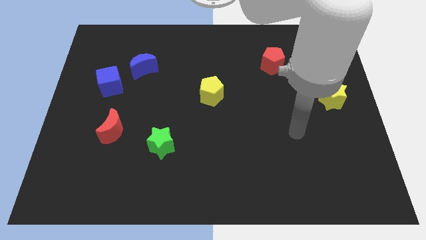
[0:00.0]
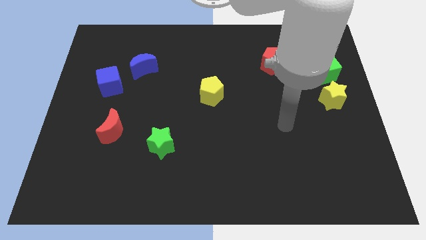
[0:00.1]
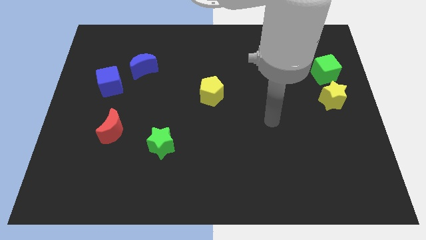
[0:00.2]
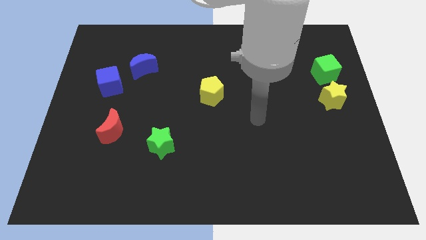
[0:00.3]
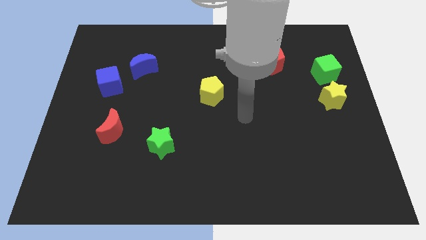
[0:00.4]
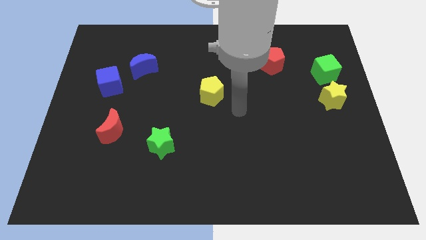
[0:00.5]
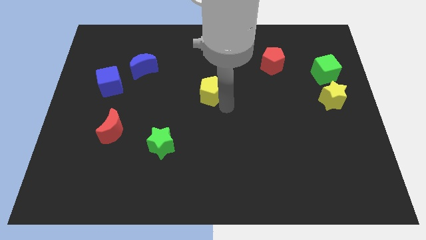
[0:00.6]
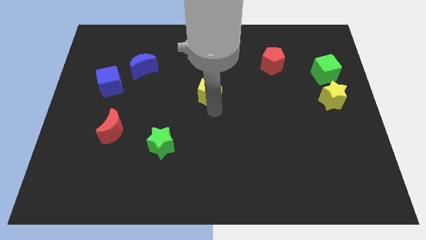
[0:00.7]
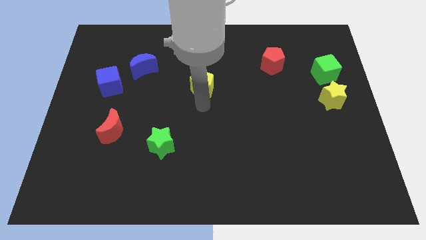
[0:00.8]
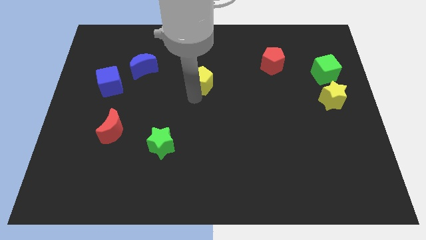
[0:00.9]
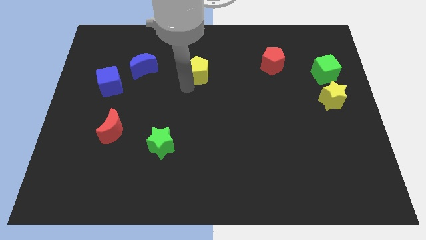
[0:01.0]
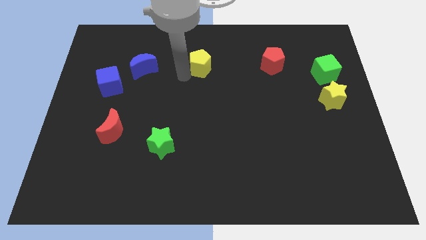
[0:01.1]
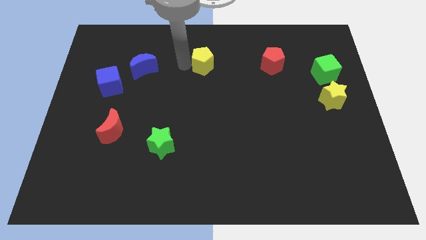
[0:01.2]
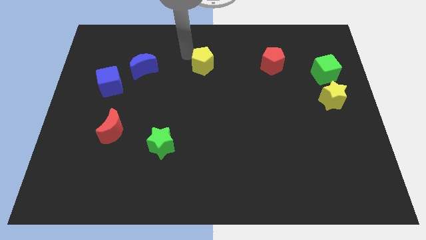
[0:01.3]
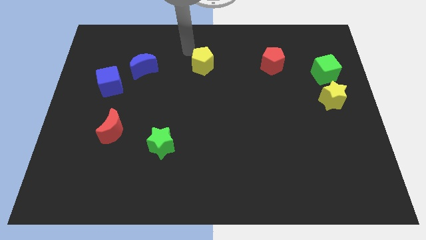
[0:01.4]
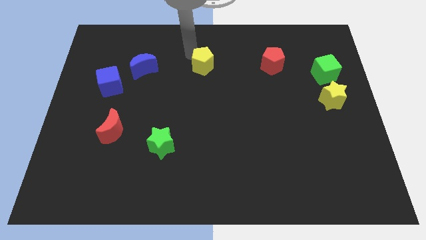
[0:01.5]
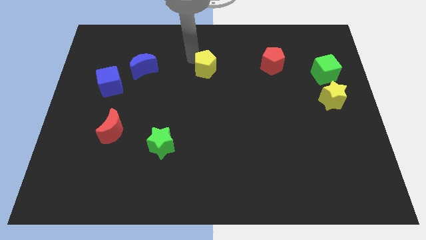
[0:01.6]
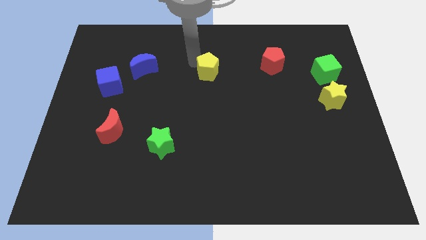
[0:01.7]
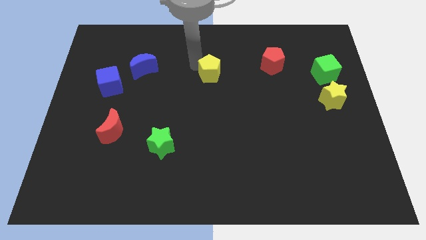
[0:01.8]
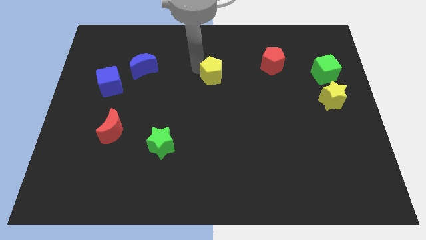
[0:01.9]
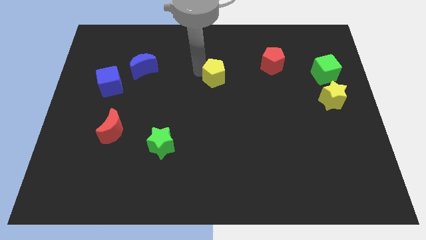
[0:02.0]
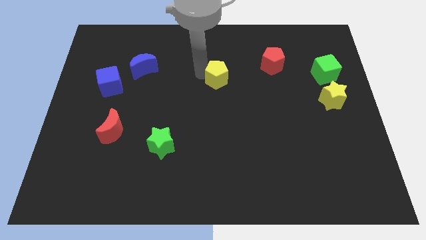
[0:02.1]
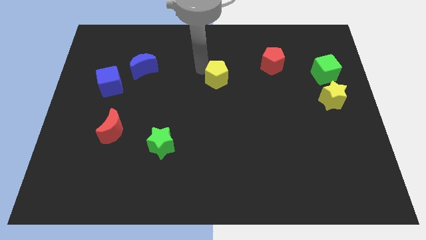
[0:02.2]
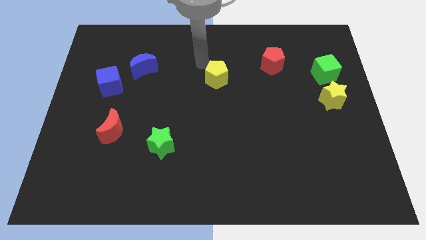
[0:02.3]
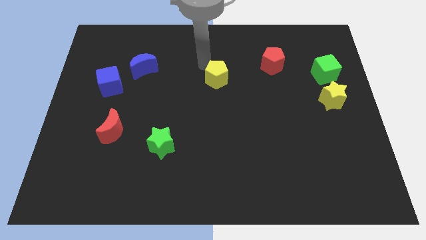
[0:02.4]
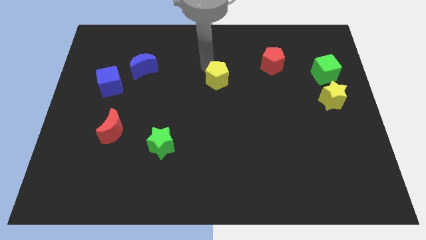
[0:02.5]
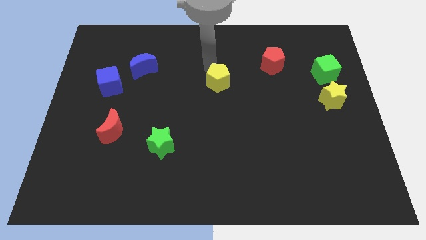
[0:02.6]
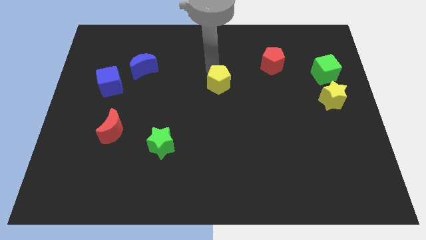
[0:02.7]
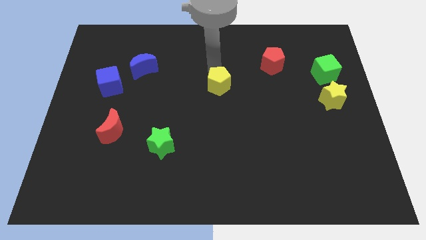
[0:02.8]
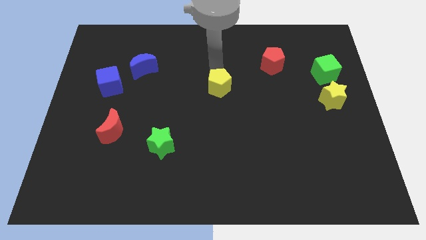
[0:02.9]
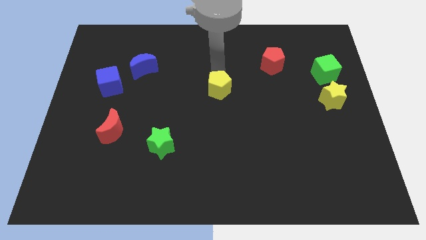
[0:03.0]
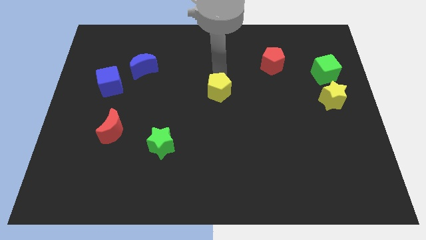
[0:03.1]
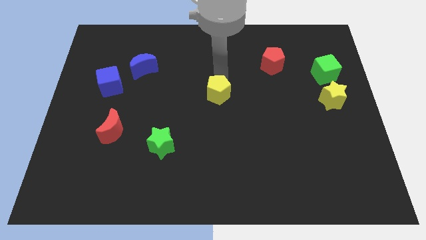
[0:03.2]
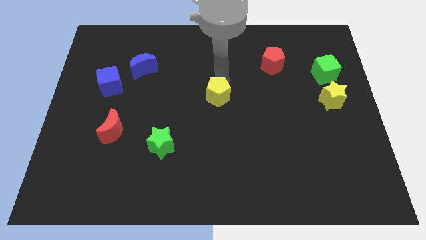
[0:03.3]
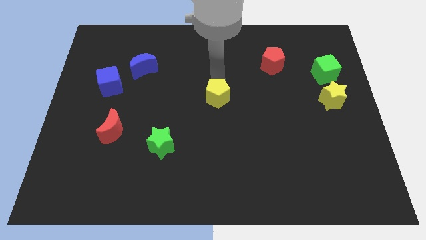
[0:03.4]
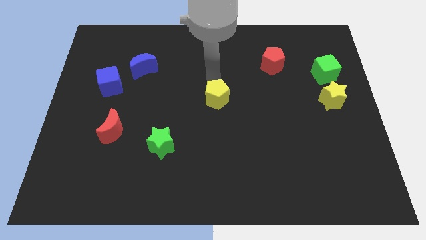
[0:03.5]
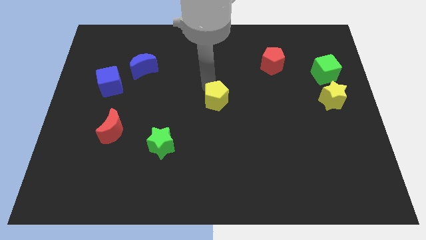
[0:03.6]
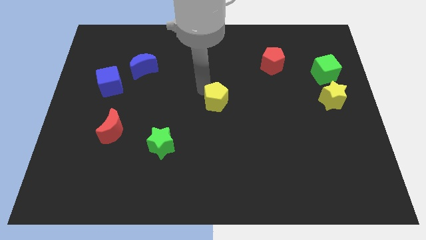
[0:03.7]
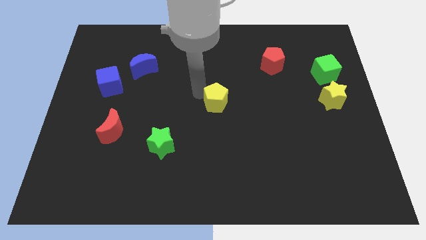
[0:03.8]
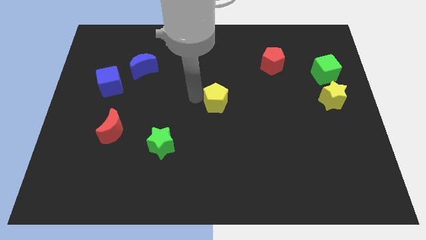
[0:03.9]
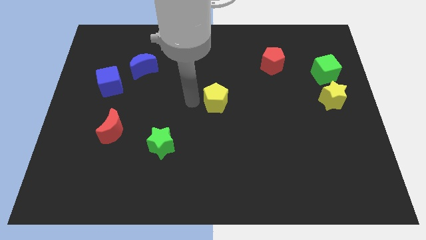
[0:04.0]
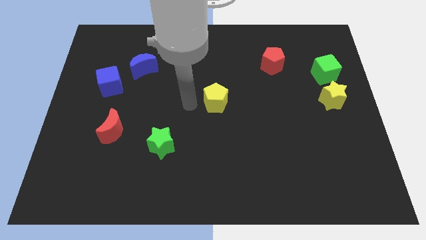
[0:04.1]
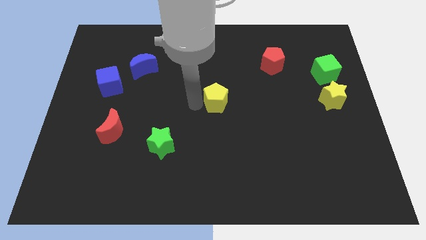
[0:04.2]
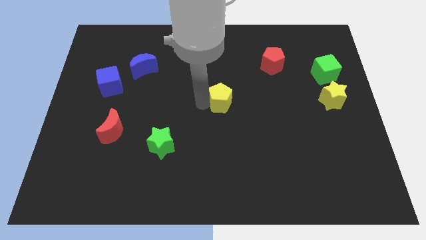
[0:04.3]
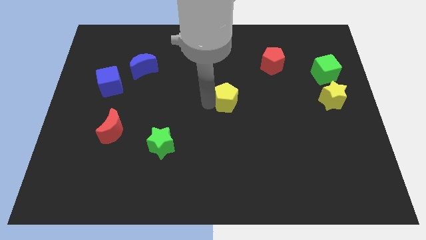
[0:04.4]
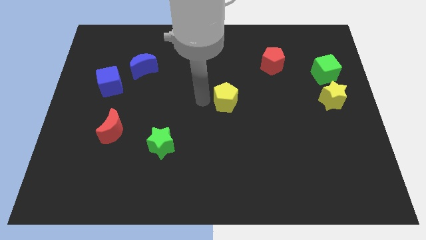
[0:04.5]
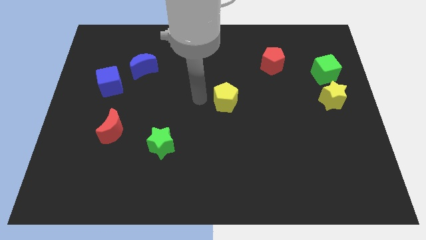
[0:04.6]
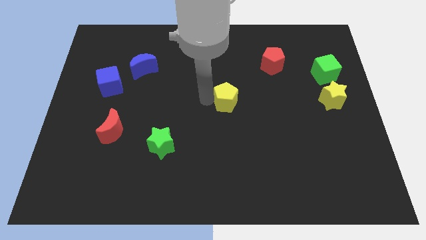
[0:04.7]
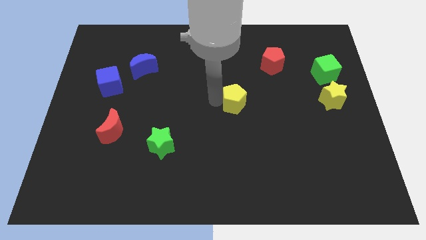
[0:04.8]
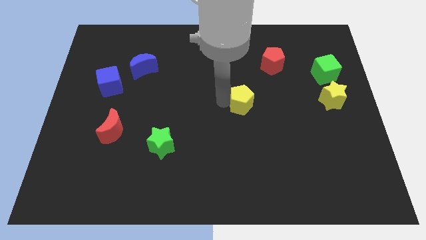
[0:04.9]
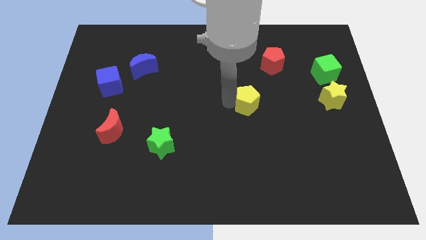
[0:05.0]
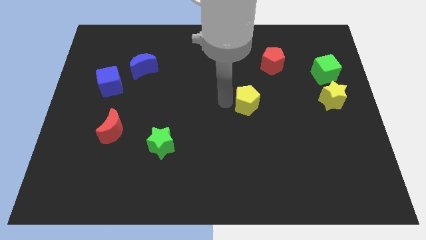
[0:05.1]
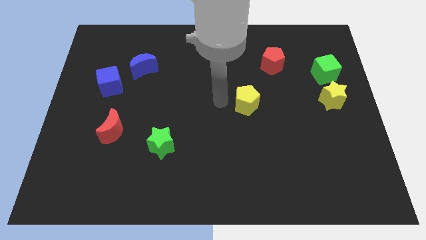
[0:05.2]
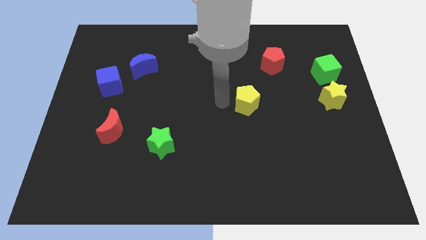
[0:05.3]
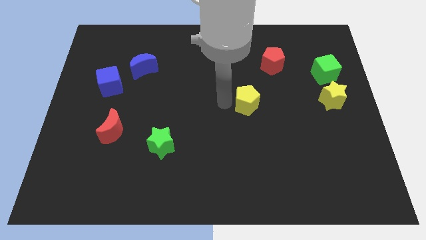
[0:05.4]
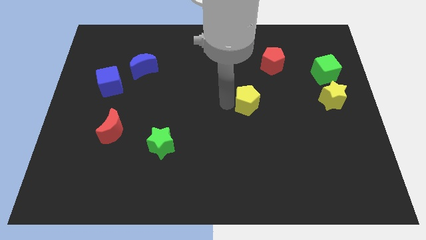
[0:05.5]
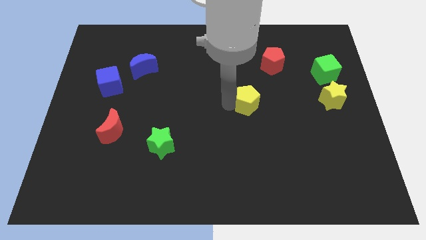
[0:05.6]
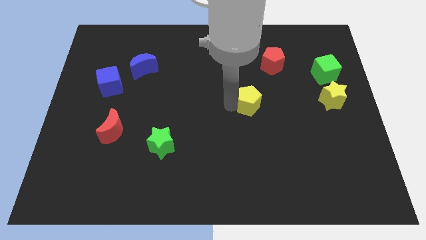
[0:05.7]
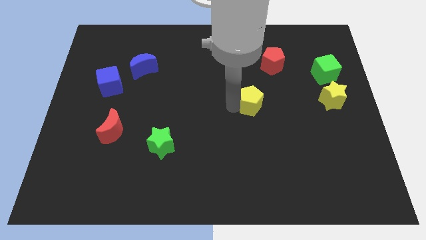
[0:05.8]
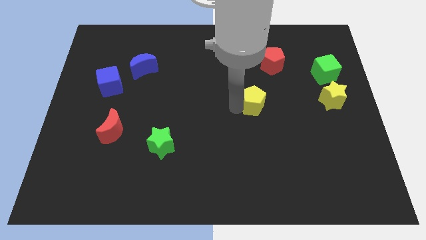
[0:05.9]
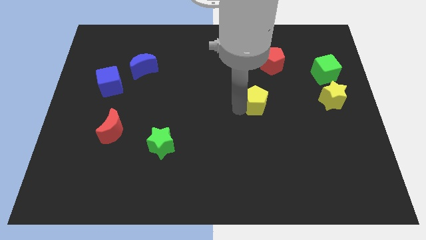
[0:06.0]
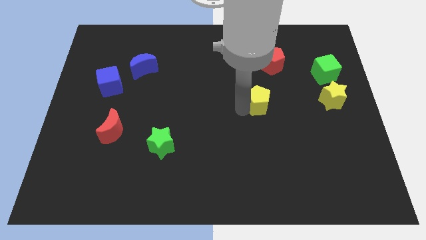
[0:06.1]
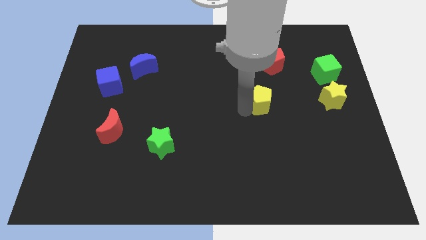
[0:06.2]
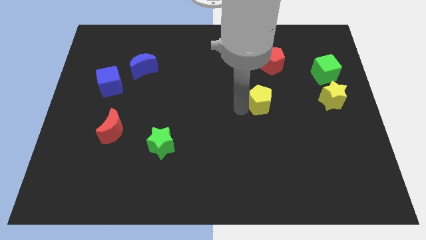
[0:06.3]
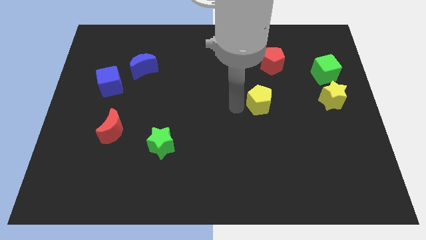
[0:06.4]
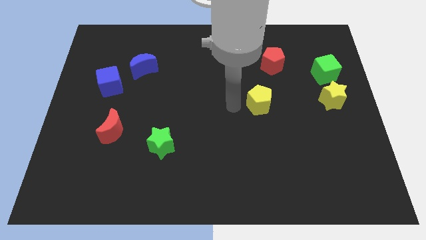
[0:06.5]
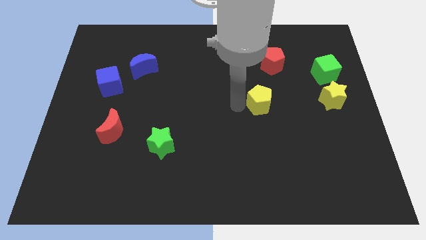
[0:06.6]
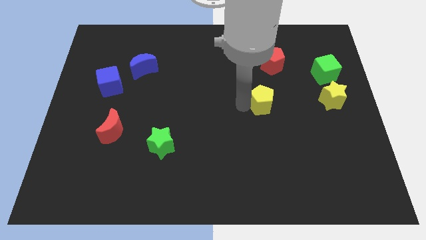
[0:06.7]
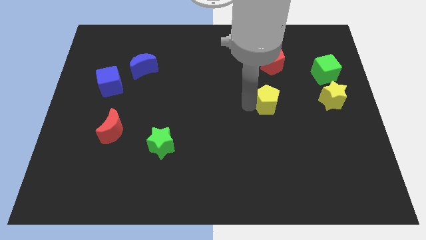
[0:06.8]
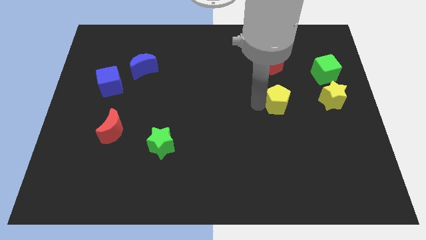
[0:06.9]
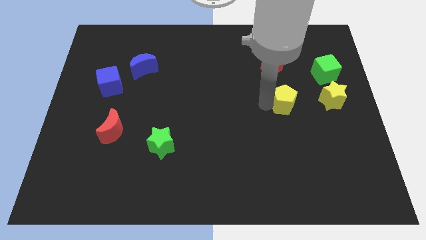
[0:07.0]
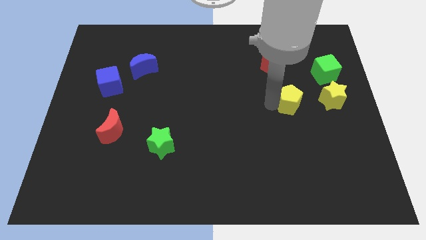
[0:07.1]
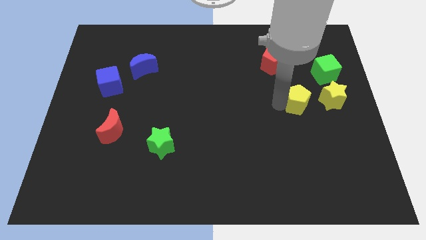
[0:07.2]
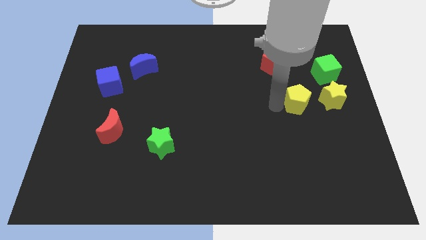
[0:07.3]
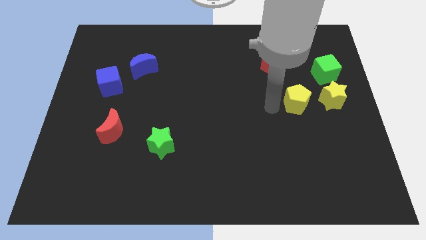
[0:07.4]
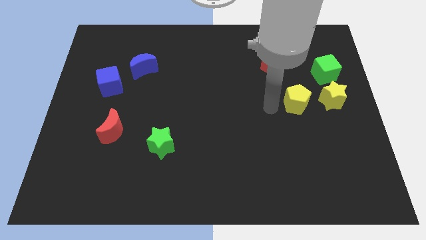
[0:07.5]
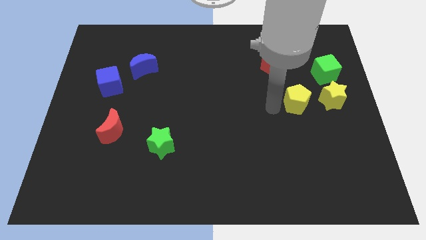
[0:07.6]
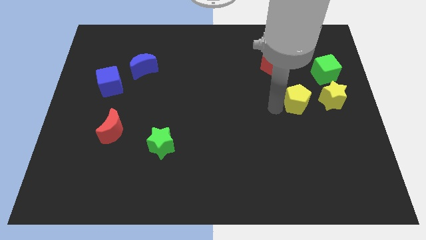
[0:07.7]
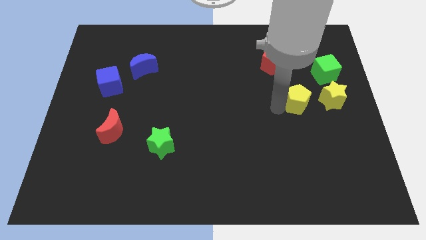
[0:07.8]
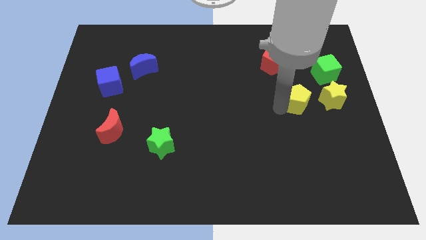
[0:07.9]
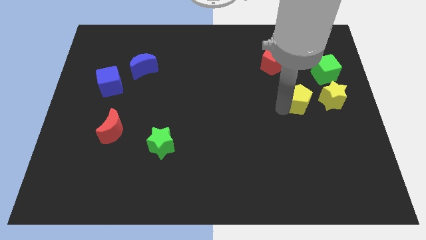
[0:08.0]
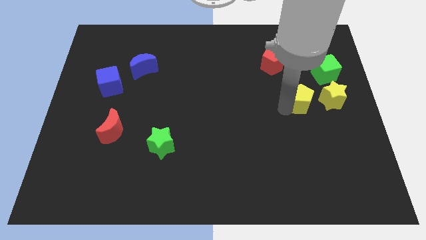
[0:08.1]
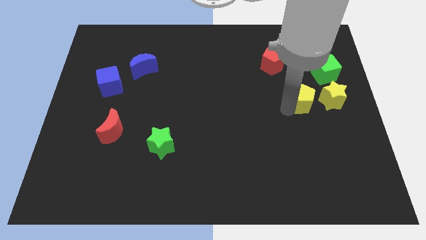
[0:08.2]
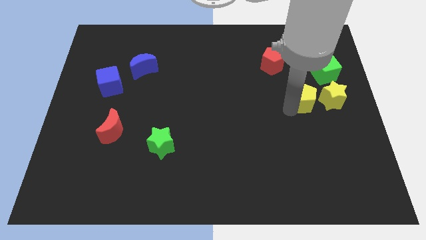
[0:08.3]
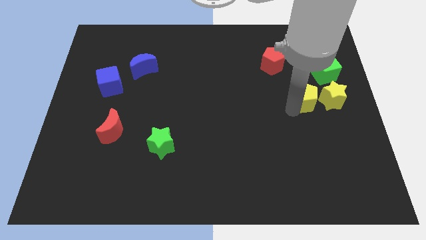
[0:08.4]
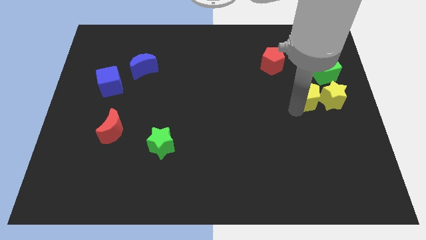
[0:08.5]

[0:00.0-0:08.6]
move the yellow pentagon next to the yellow star
